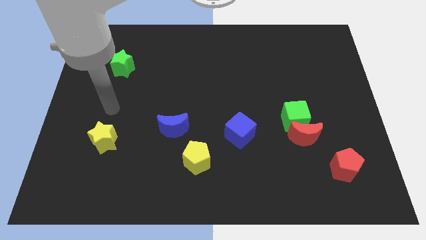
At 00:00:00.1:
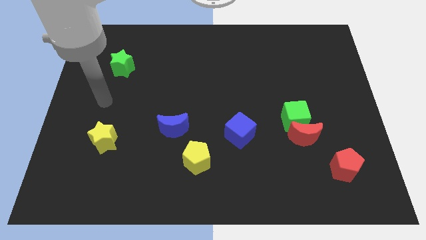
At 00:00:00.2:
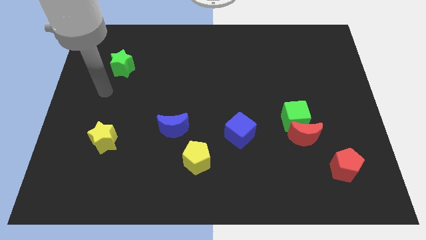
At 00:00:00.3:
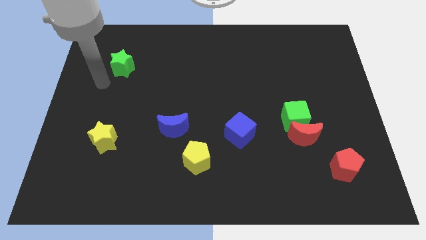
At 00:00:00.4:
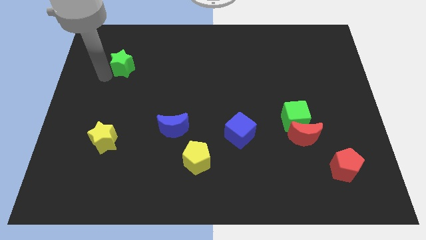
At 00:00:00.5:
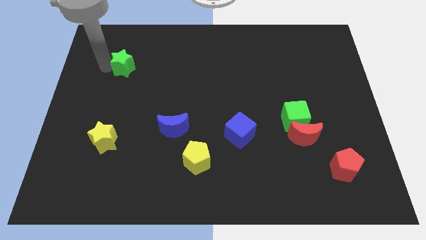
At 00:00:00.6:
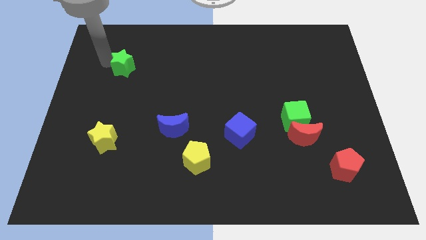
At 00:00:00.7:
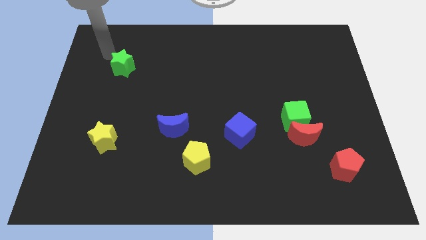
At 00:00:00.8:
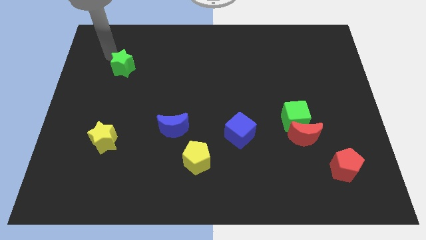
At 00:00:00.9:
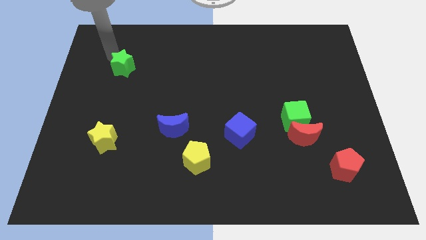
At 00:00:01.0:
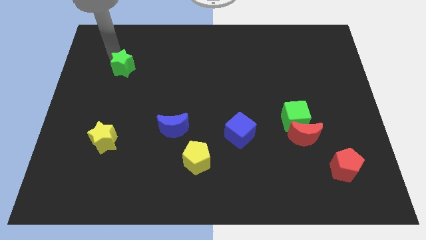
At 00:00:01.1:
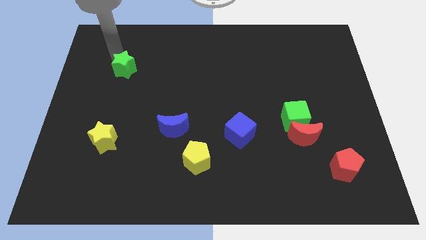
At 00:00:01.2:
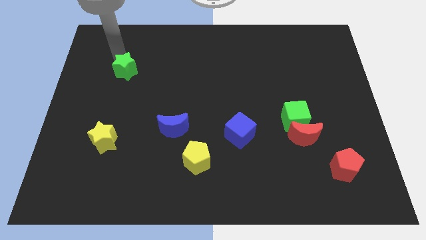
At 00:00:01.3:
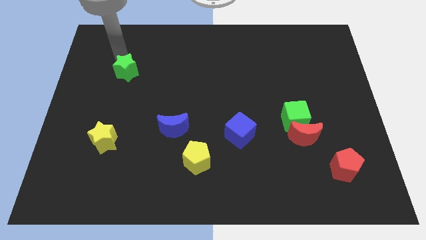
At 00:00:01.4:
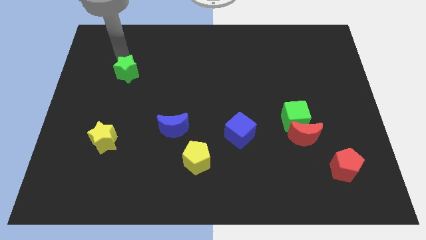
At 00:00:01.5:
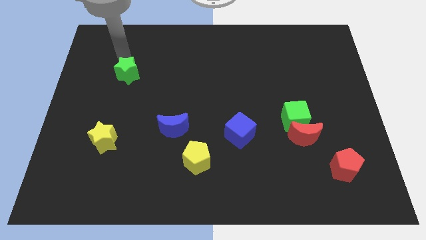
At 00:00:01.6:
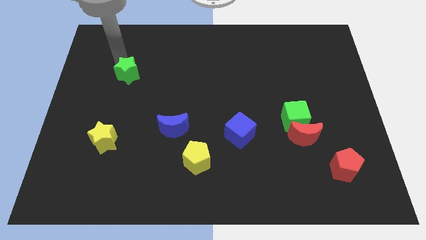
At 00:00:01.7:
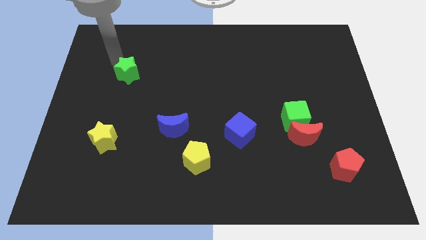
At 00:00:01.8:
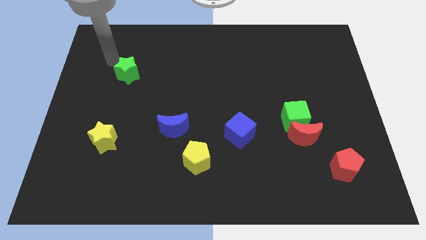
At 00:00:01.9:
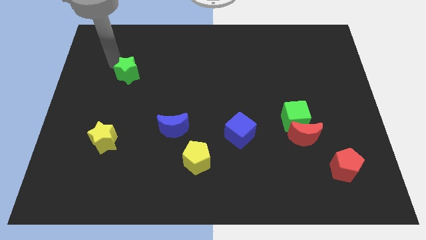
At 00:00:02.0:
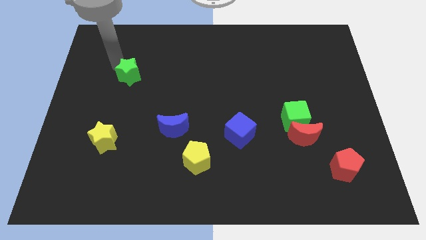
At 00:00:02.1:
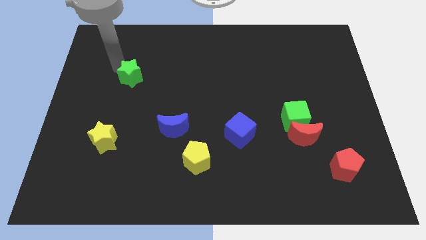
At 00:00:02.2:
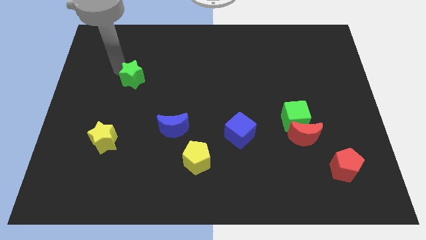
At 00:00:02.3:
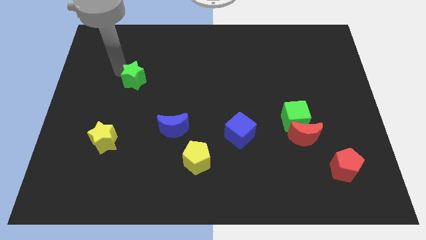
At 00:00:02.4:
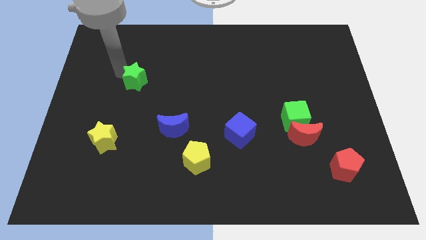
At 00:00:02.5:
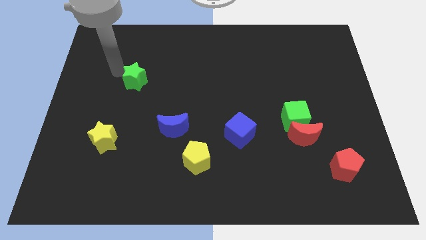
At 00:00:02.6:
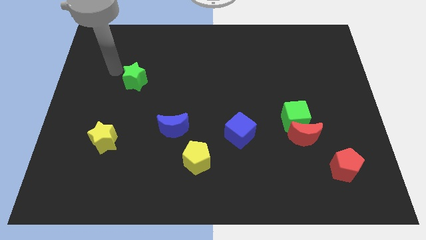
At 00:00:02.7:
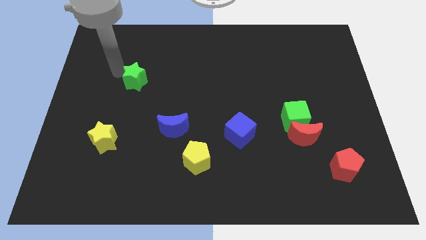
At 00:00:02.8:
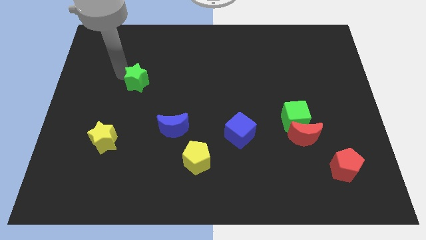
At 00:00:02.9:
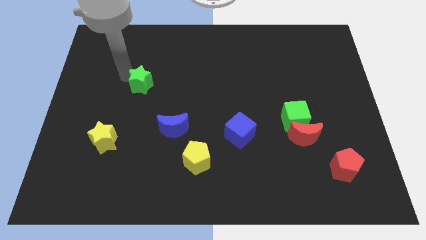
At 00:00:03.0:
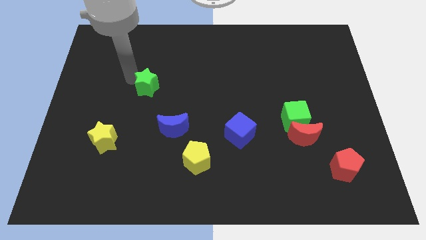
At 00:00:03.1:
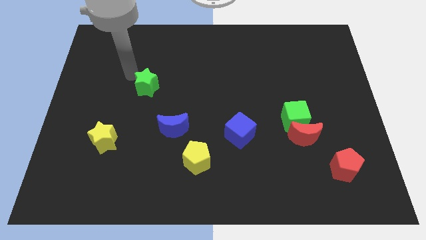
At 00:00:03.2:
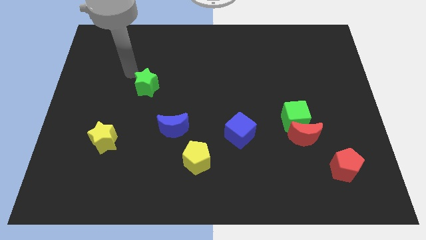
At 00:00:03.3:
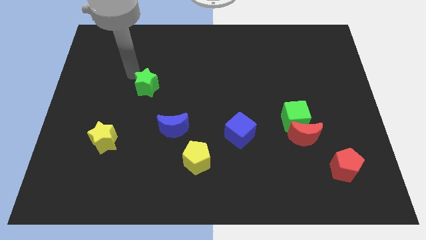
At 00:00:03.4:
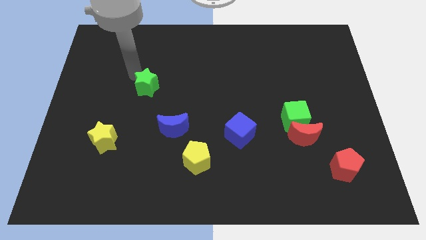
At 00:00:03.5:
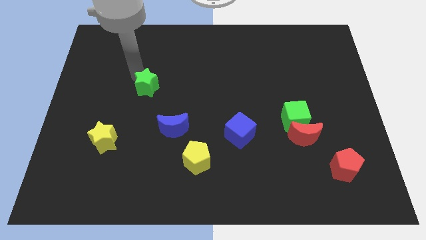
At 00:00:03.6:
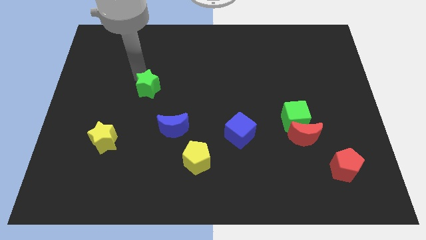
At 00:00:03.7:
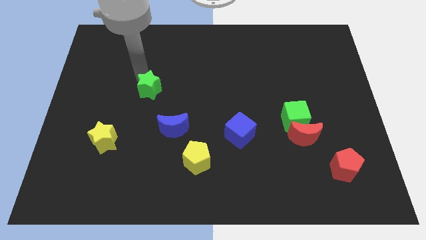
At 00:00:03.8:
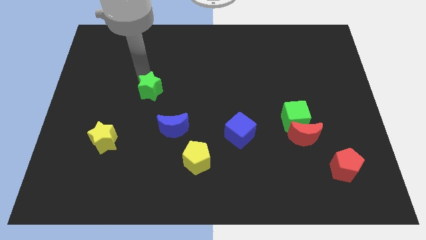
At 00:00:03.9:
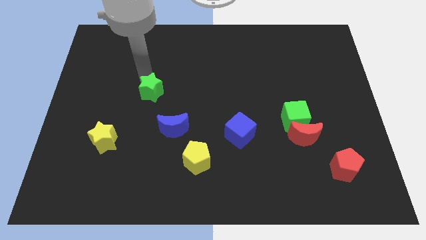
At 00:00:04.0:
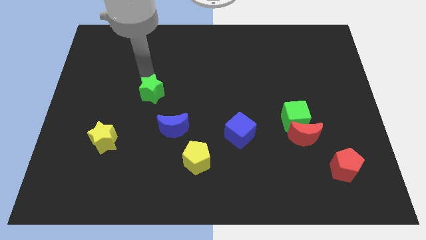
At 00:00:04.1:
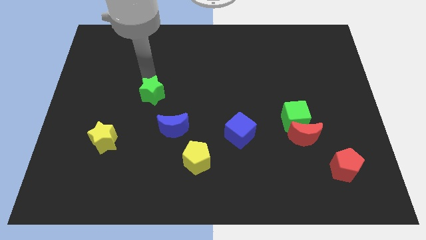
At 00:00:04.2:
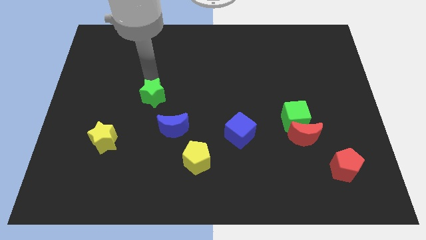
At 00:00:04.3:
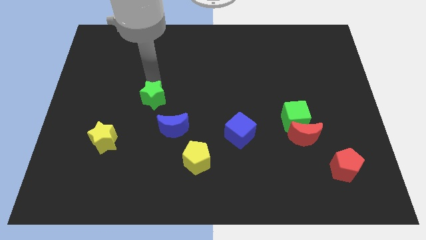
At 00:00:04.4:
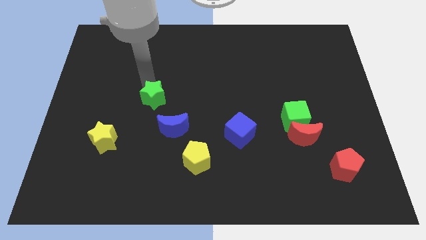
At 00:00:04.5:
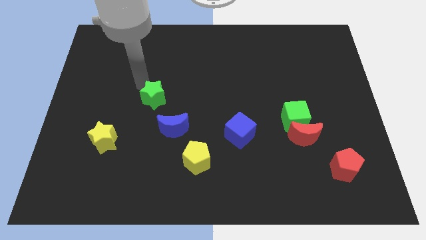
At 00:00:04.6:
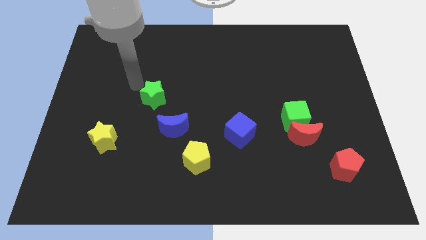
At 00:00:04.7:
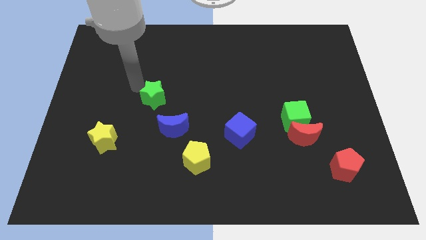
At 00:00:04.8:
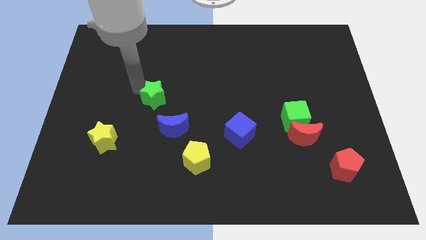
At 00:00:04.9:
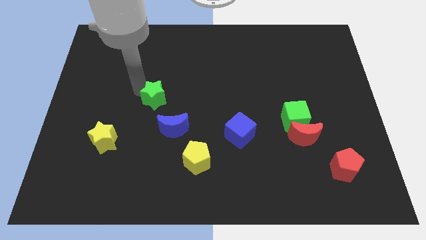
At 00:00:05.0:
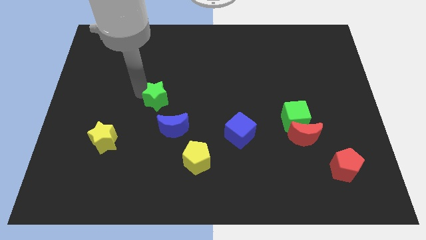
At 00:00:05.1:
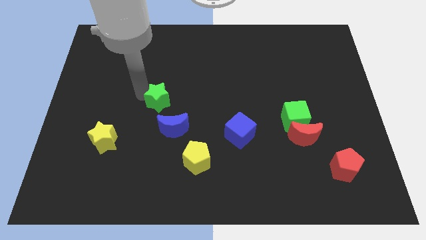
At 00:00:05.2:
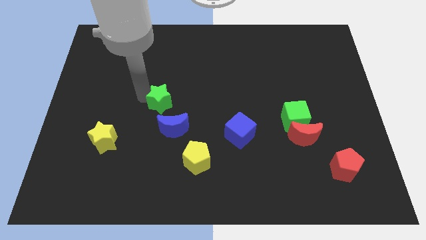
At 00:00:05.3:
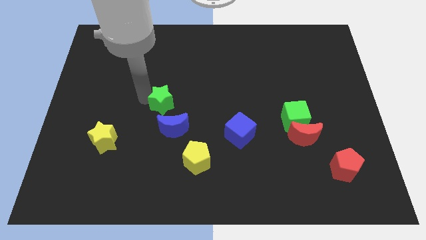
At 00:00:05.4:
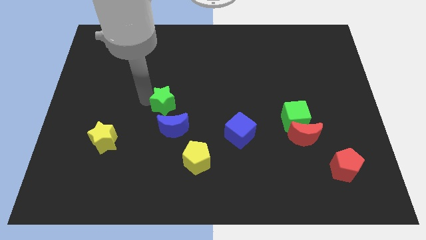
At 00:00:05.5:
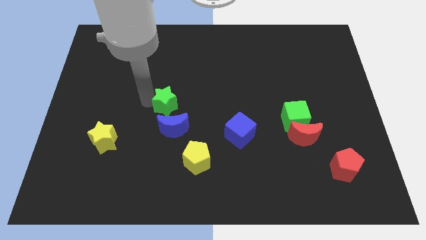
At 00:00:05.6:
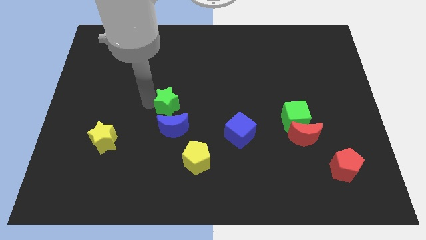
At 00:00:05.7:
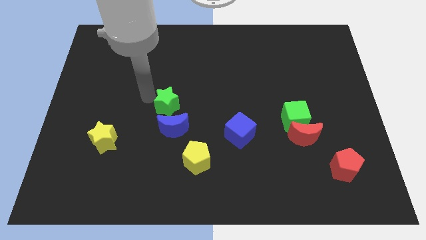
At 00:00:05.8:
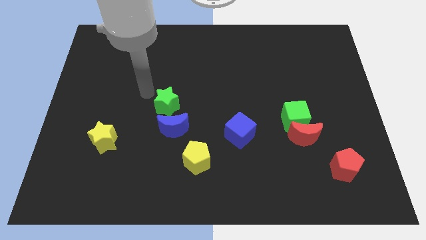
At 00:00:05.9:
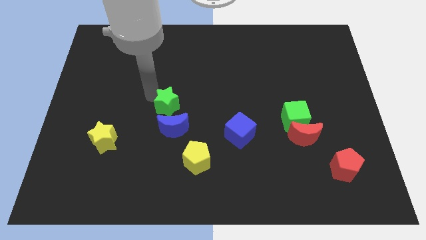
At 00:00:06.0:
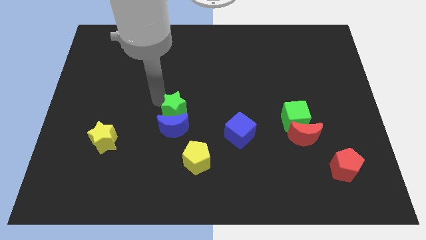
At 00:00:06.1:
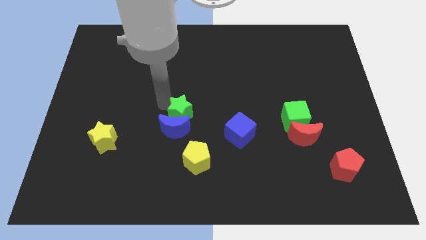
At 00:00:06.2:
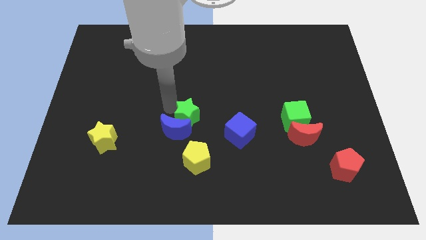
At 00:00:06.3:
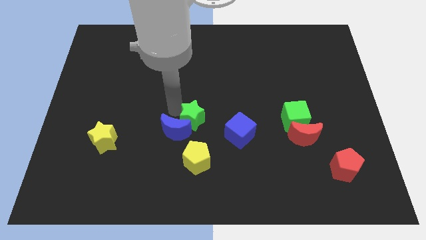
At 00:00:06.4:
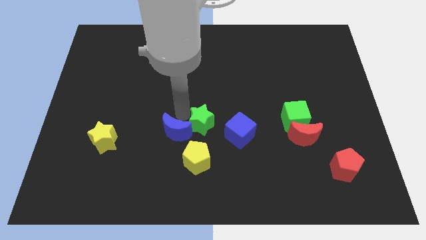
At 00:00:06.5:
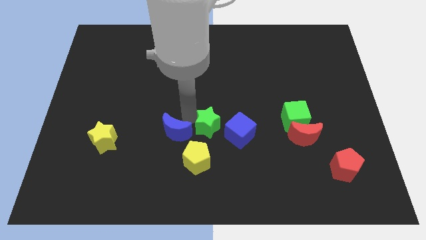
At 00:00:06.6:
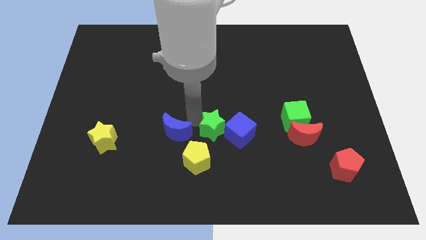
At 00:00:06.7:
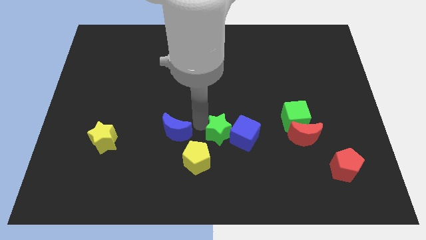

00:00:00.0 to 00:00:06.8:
slide the green star to the blue cube
